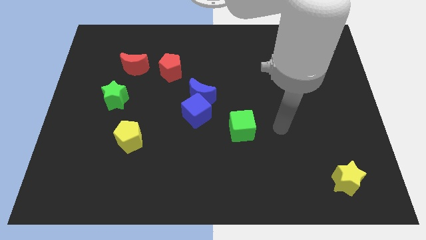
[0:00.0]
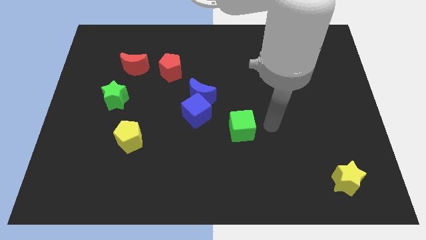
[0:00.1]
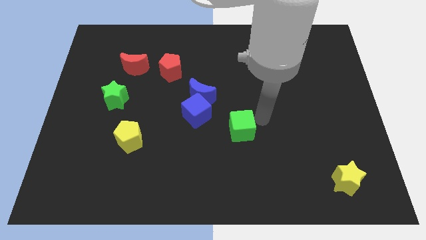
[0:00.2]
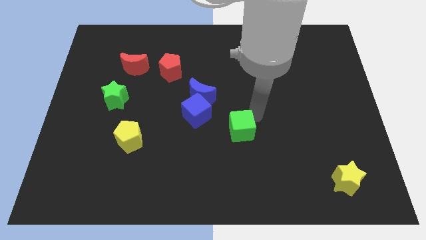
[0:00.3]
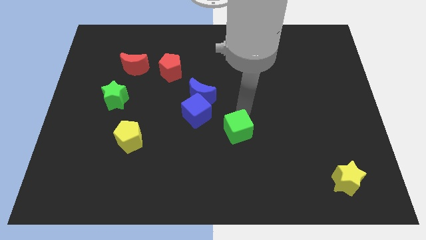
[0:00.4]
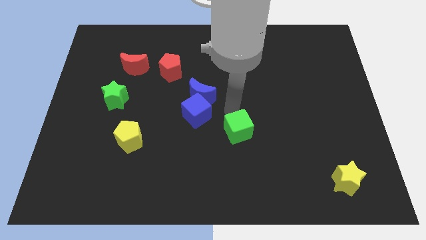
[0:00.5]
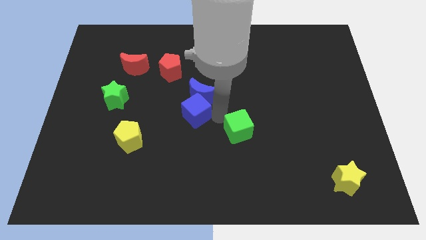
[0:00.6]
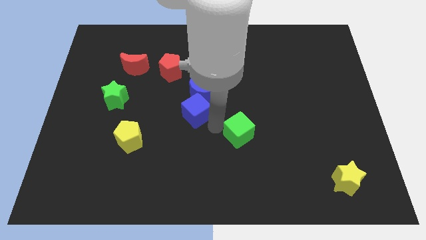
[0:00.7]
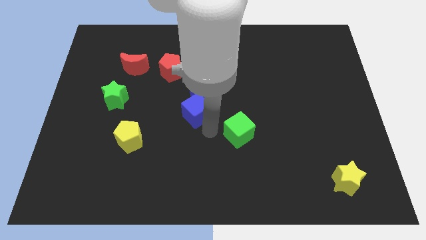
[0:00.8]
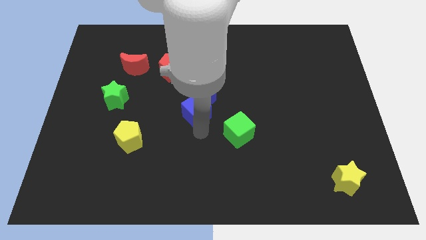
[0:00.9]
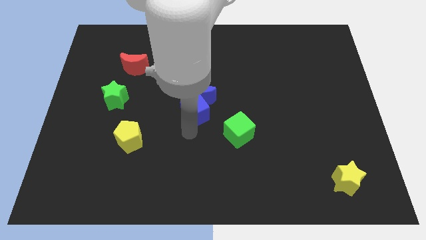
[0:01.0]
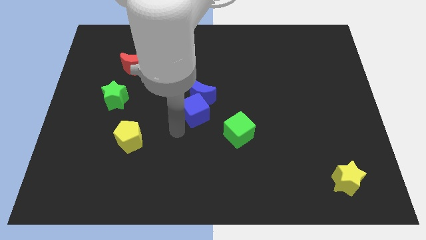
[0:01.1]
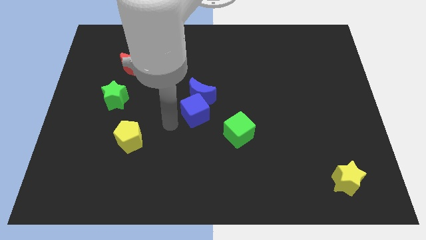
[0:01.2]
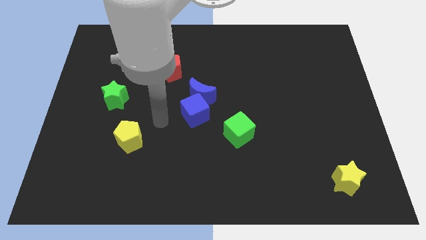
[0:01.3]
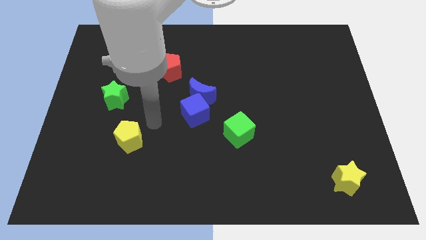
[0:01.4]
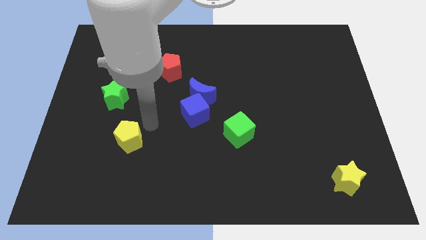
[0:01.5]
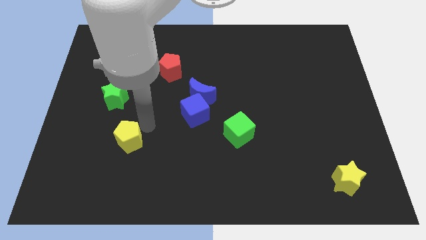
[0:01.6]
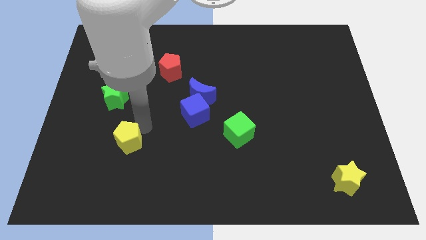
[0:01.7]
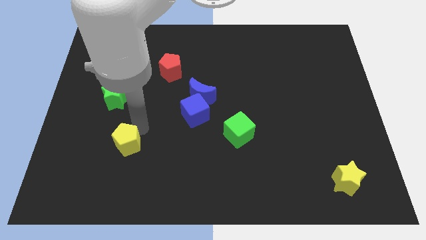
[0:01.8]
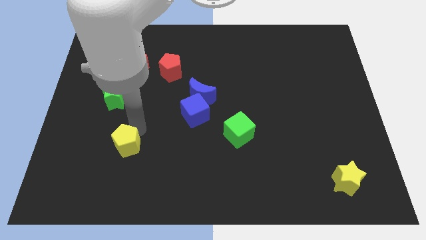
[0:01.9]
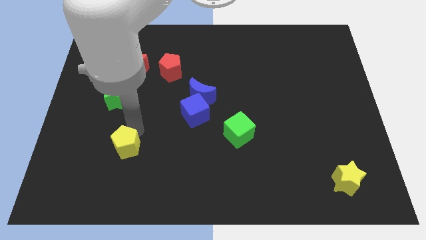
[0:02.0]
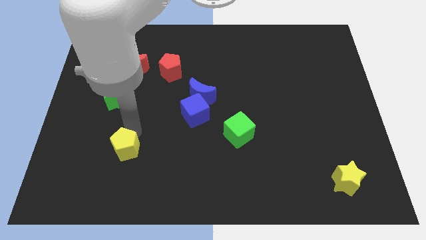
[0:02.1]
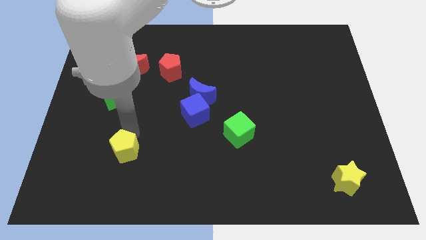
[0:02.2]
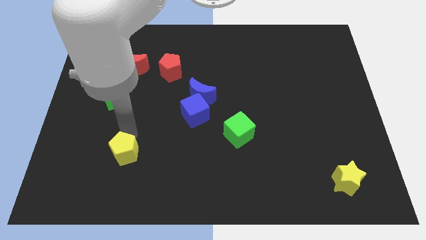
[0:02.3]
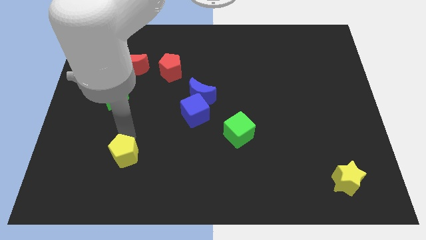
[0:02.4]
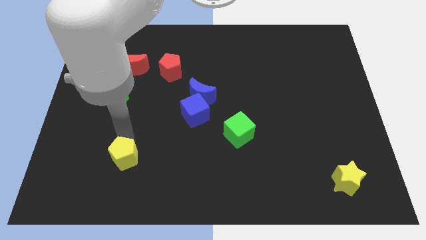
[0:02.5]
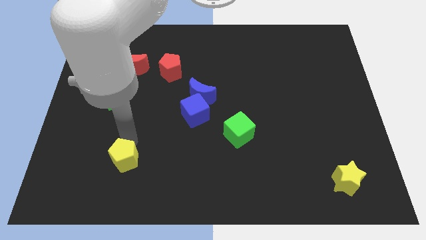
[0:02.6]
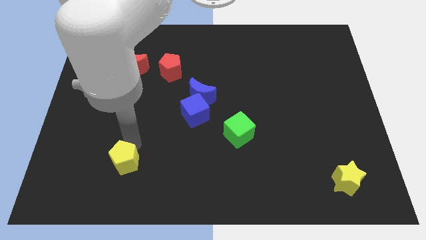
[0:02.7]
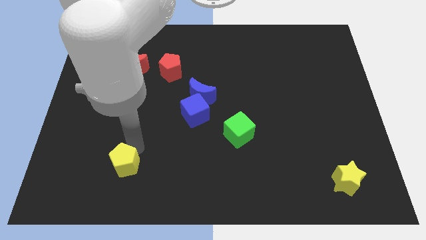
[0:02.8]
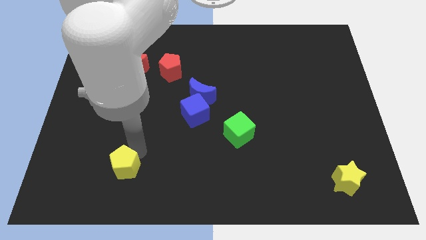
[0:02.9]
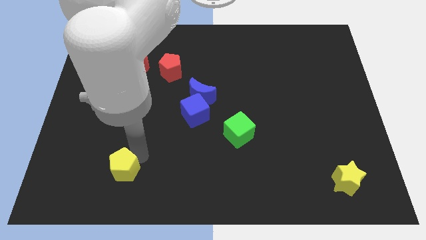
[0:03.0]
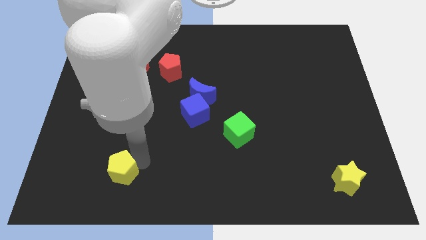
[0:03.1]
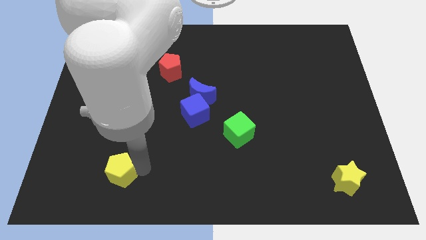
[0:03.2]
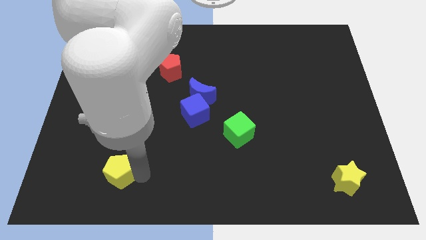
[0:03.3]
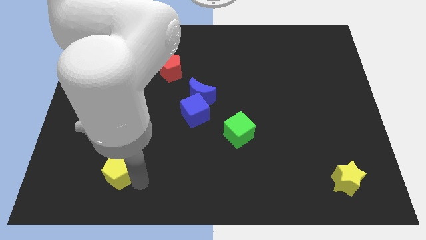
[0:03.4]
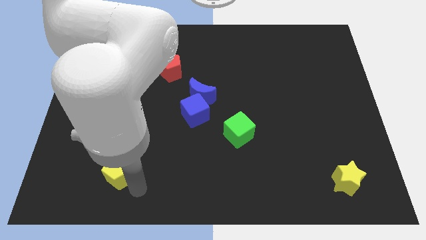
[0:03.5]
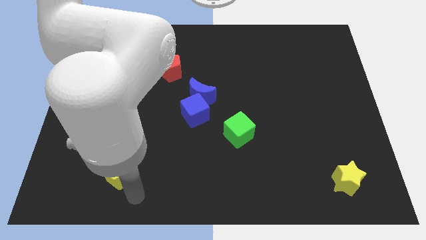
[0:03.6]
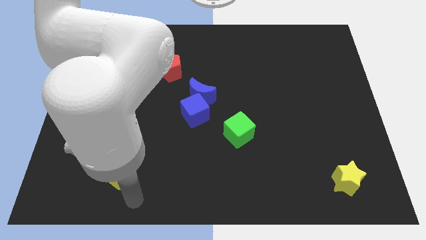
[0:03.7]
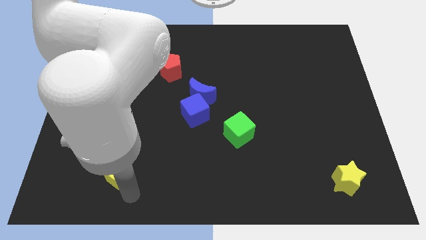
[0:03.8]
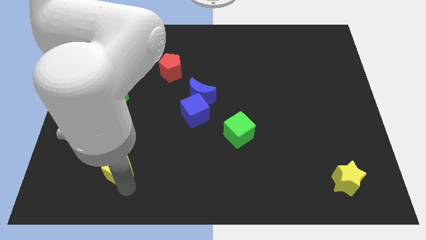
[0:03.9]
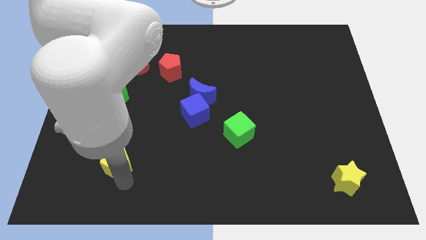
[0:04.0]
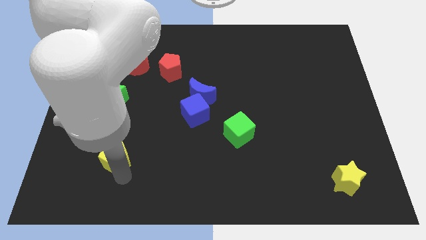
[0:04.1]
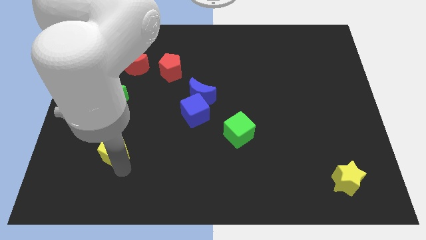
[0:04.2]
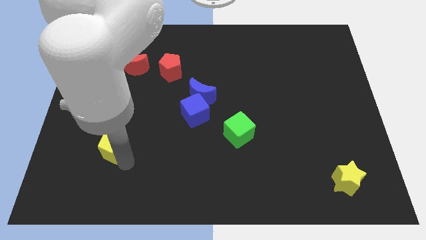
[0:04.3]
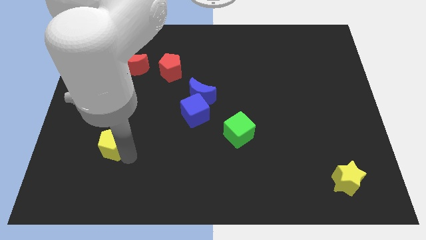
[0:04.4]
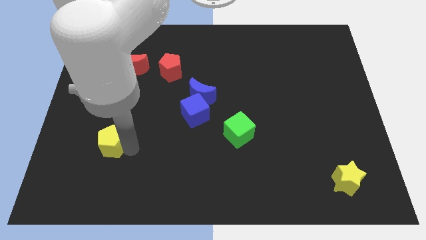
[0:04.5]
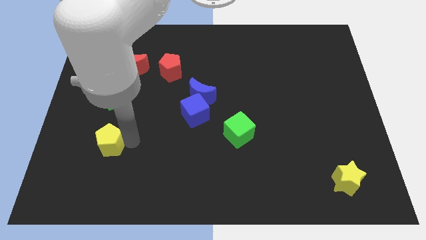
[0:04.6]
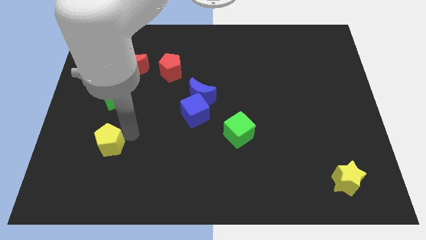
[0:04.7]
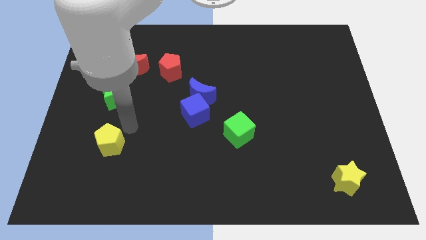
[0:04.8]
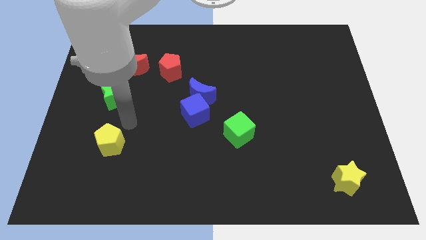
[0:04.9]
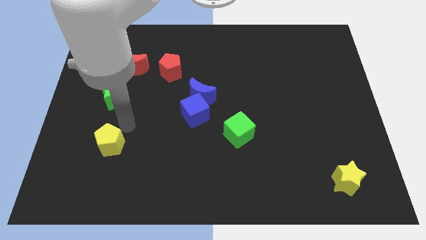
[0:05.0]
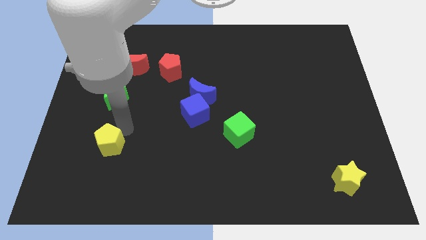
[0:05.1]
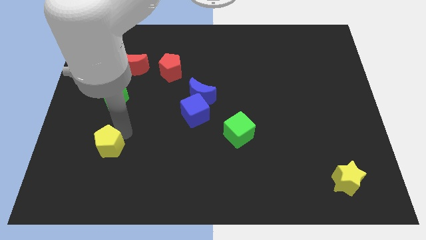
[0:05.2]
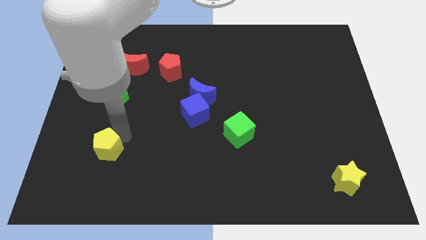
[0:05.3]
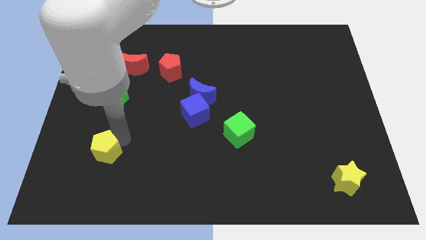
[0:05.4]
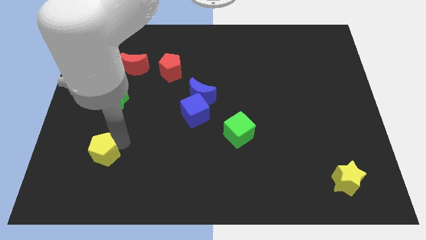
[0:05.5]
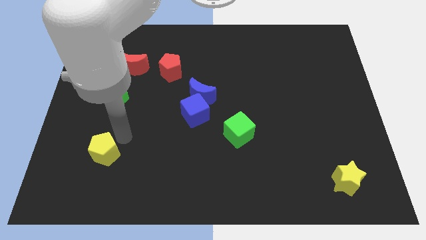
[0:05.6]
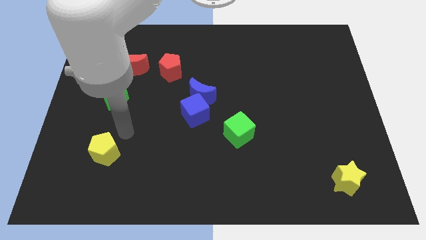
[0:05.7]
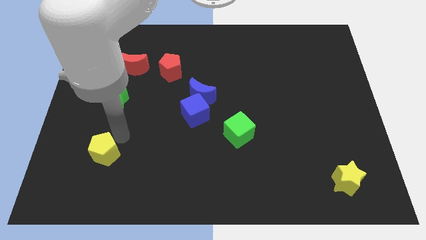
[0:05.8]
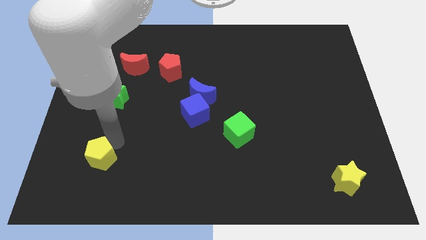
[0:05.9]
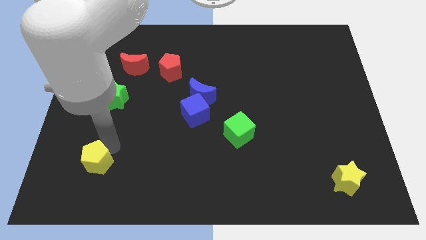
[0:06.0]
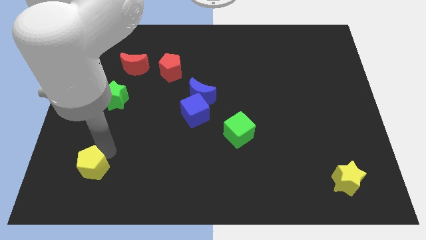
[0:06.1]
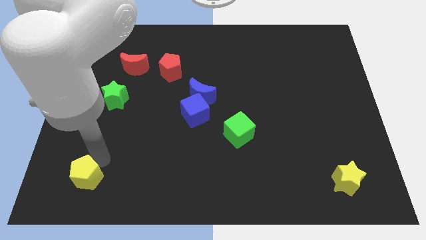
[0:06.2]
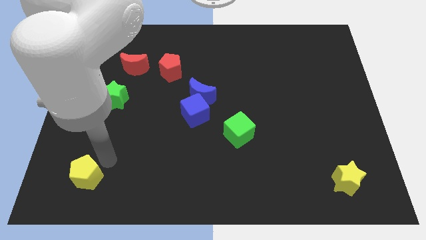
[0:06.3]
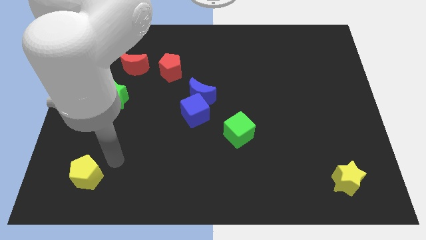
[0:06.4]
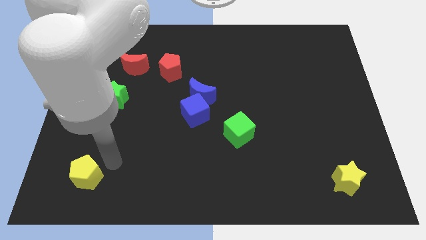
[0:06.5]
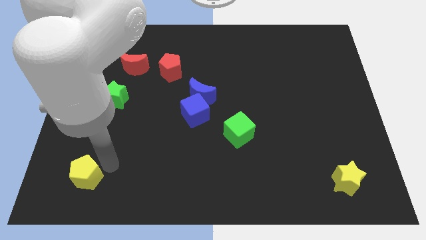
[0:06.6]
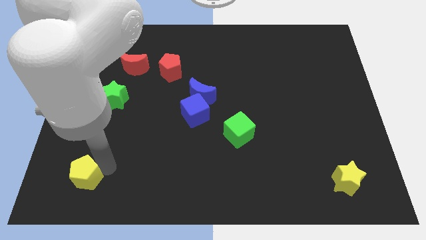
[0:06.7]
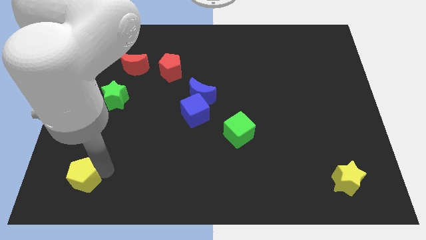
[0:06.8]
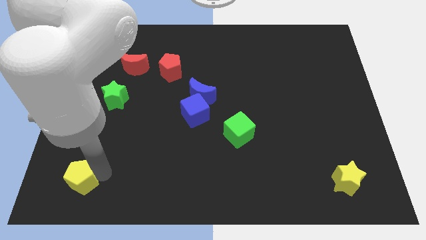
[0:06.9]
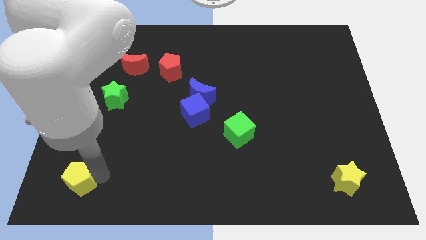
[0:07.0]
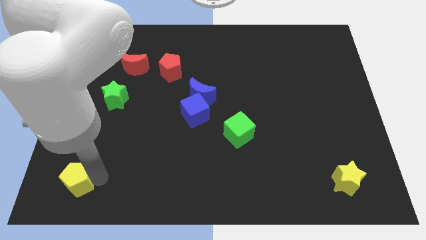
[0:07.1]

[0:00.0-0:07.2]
slide the yellow pentagon to the bottom left corner
